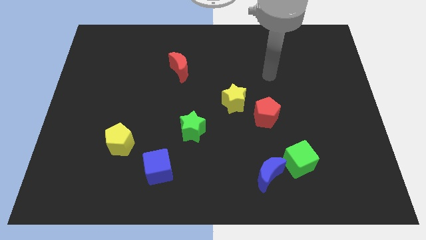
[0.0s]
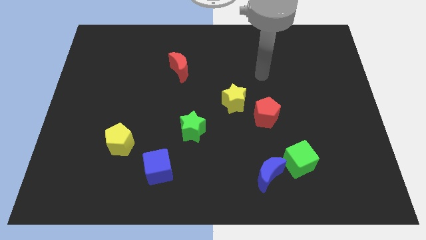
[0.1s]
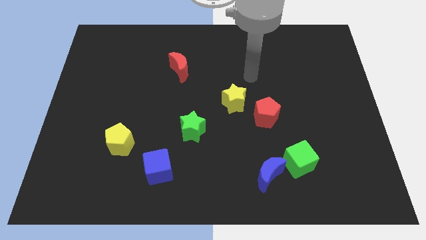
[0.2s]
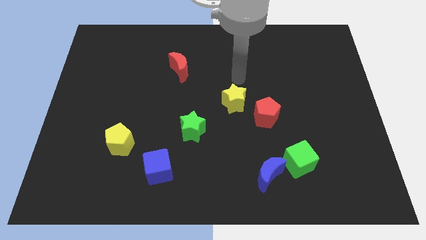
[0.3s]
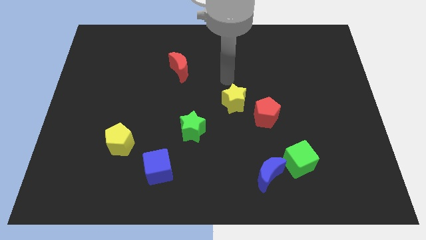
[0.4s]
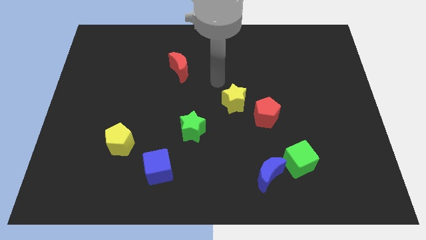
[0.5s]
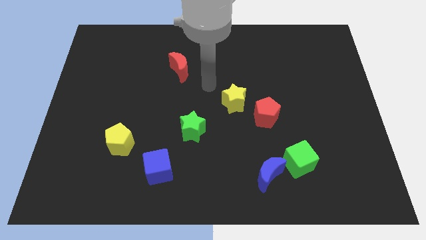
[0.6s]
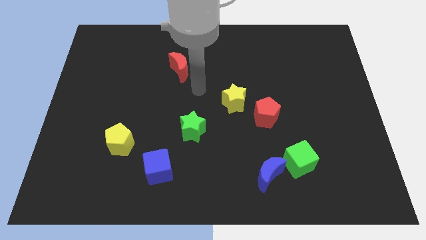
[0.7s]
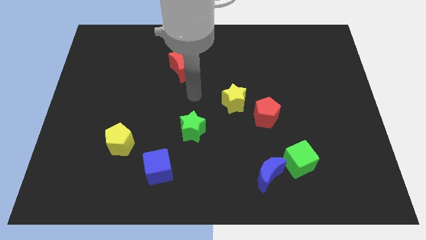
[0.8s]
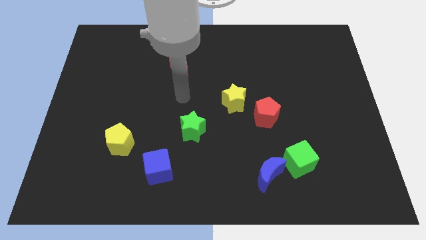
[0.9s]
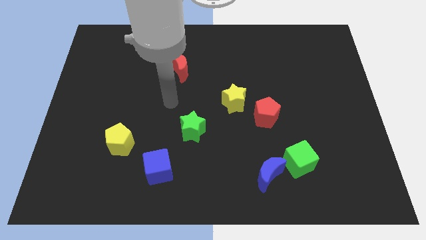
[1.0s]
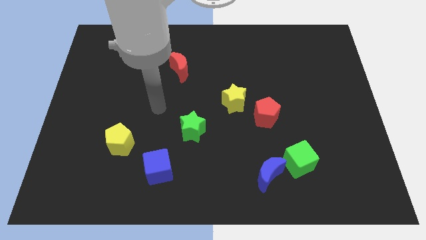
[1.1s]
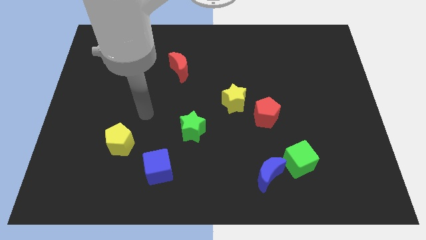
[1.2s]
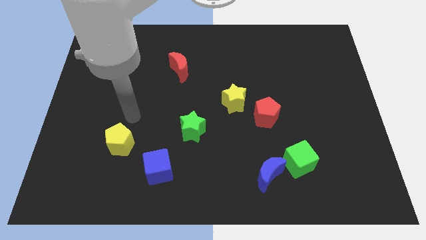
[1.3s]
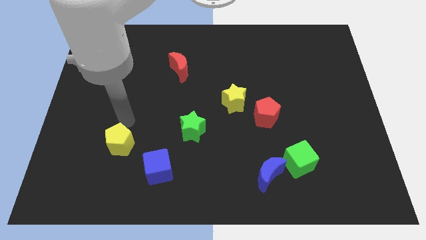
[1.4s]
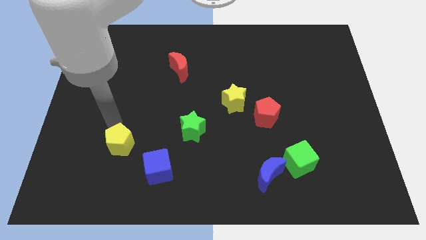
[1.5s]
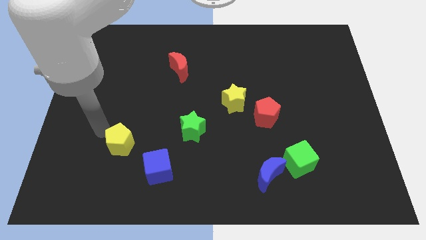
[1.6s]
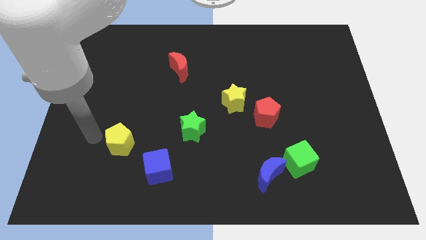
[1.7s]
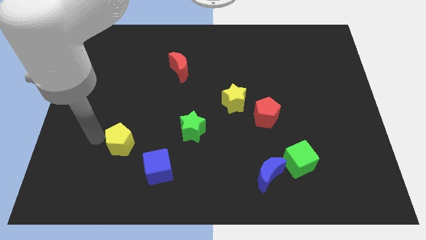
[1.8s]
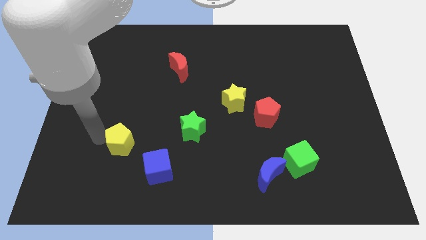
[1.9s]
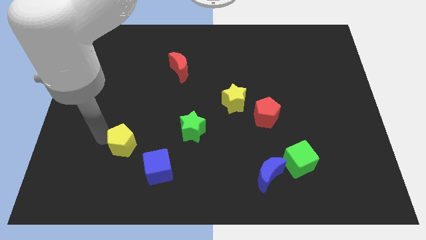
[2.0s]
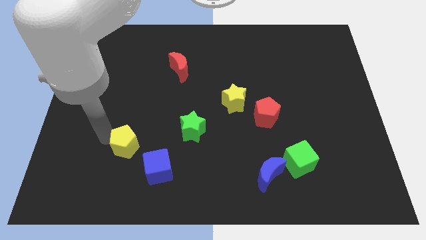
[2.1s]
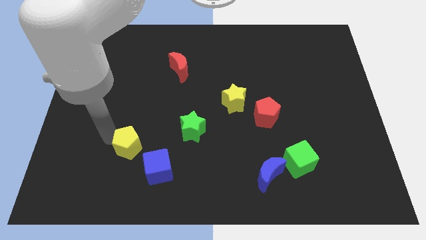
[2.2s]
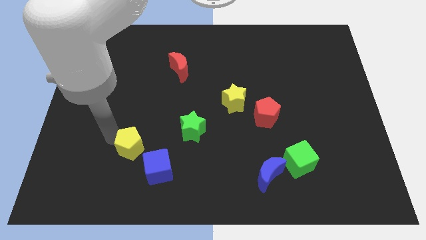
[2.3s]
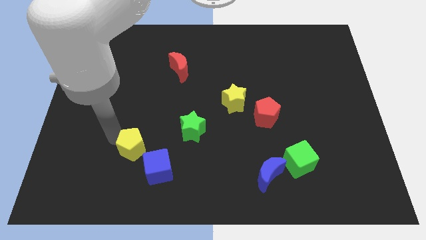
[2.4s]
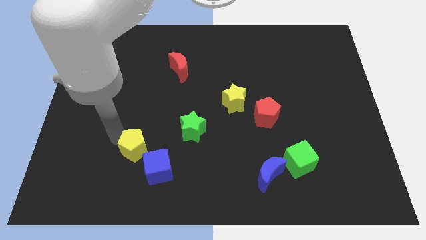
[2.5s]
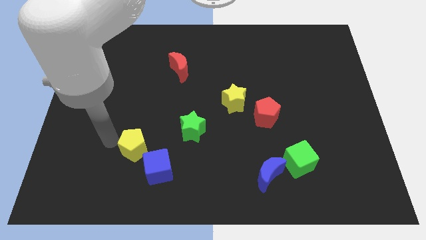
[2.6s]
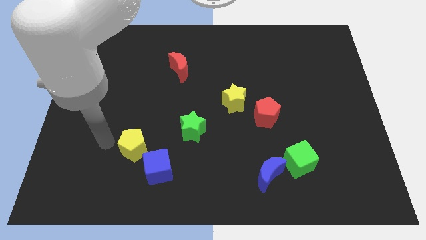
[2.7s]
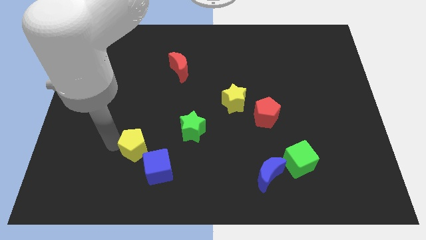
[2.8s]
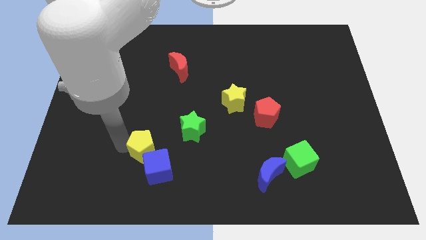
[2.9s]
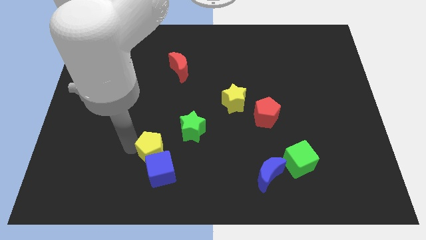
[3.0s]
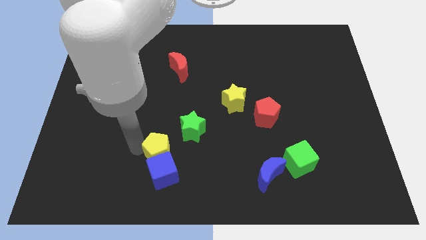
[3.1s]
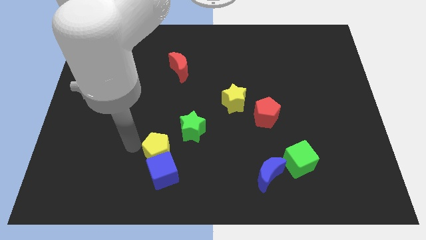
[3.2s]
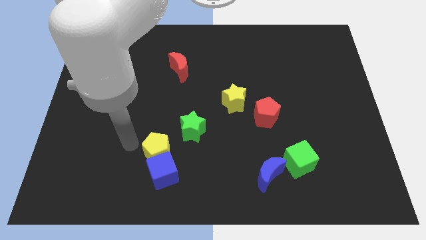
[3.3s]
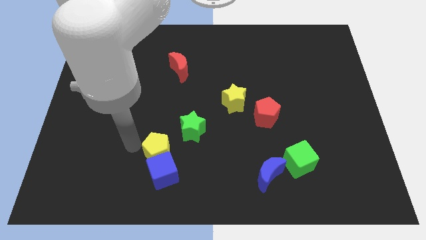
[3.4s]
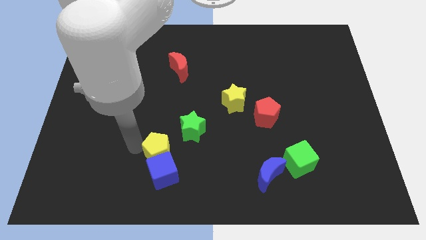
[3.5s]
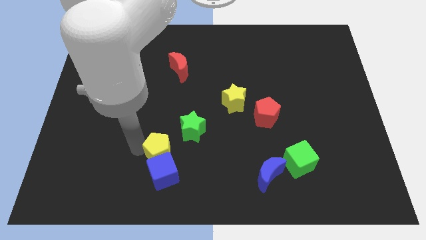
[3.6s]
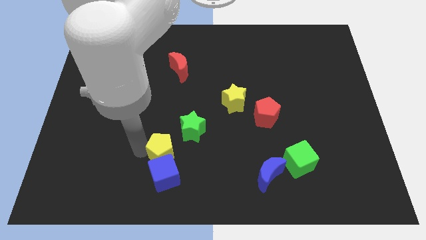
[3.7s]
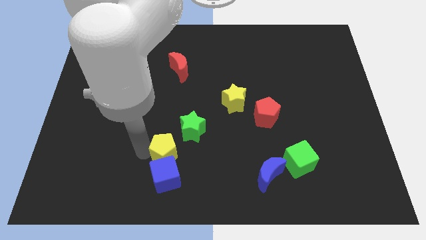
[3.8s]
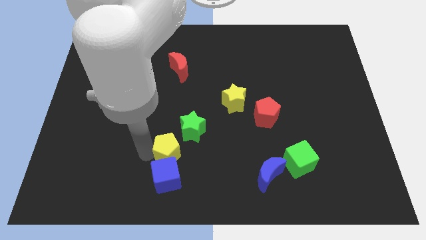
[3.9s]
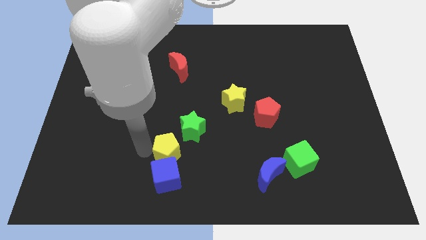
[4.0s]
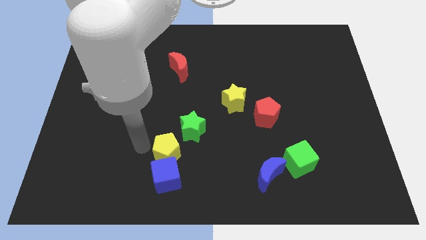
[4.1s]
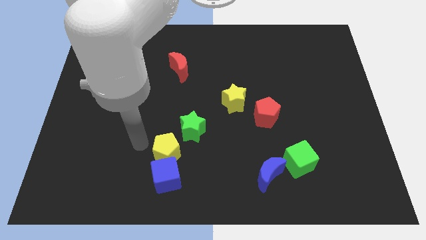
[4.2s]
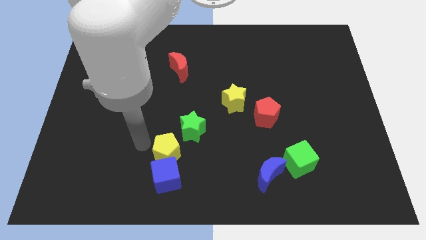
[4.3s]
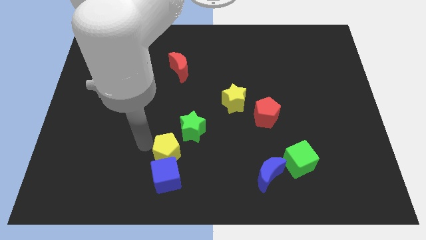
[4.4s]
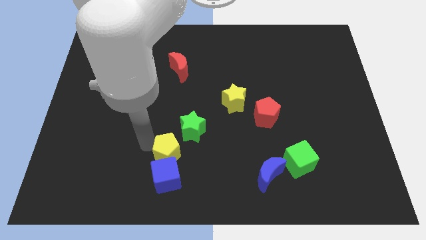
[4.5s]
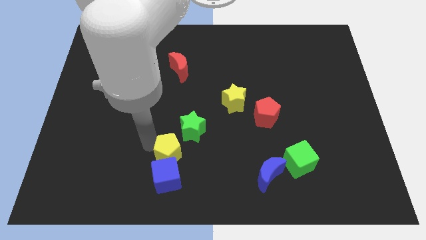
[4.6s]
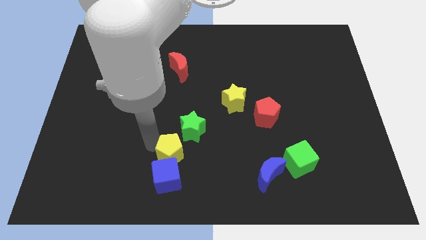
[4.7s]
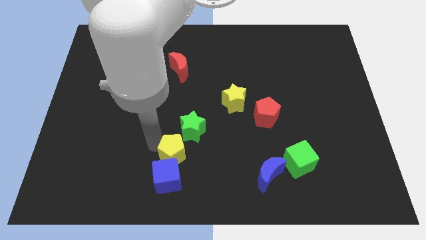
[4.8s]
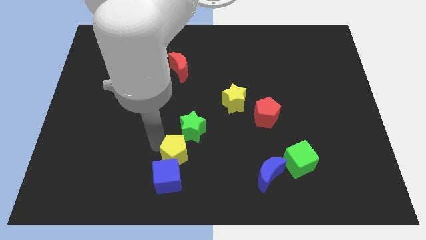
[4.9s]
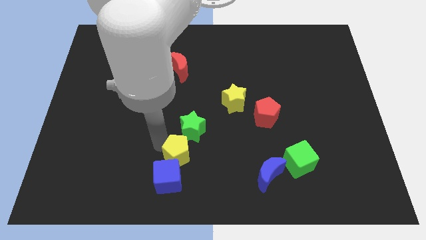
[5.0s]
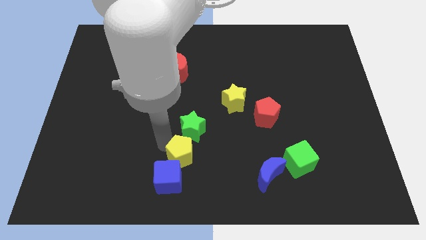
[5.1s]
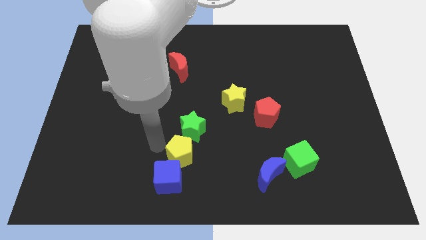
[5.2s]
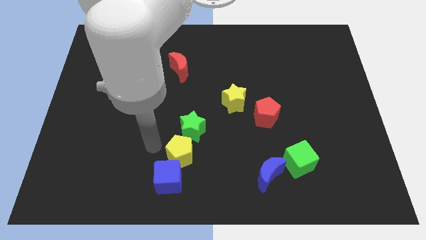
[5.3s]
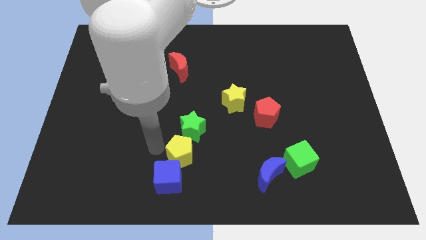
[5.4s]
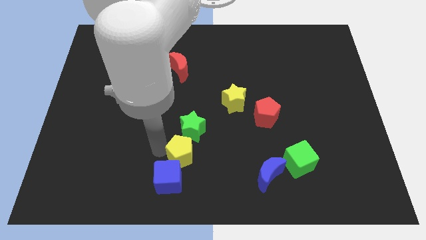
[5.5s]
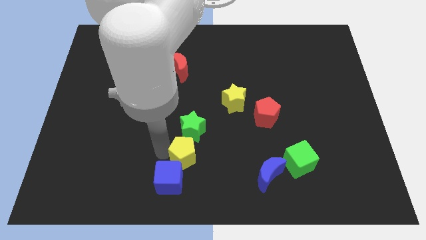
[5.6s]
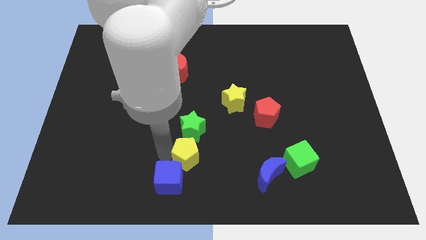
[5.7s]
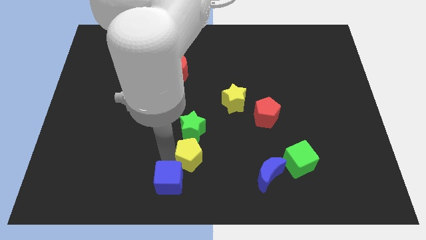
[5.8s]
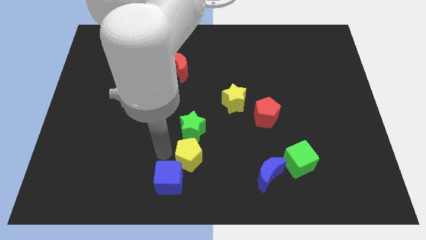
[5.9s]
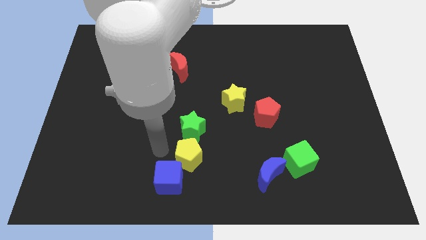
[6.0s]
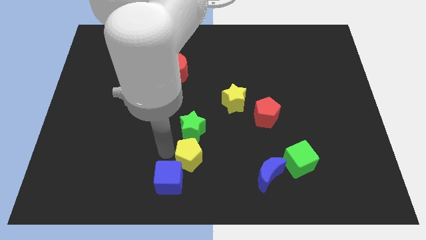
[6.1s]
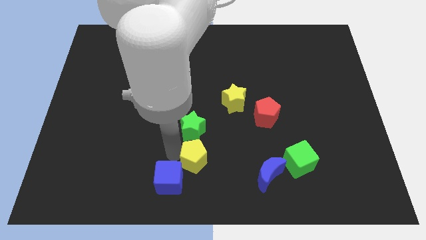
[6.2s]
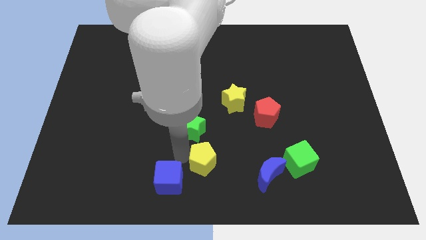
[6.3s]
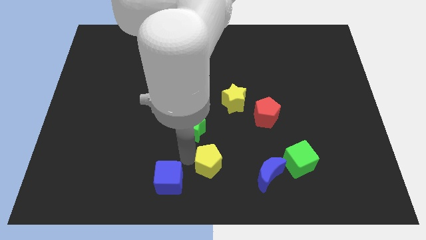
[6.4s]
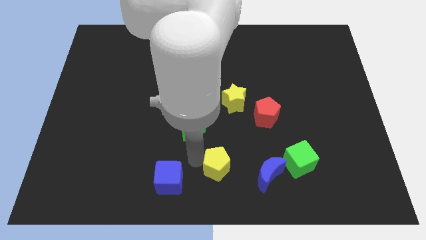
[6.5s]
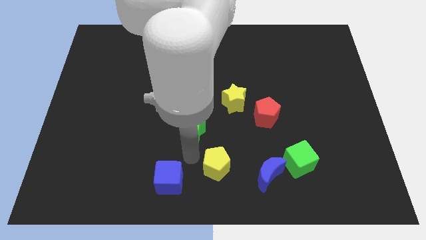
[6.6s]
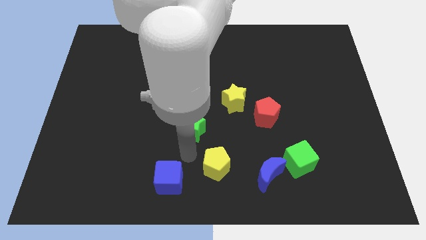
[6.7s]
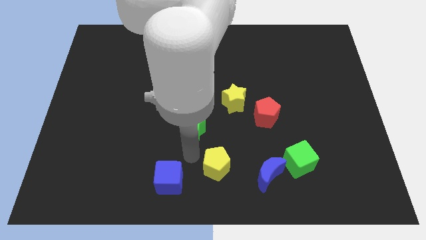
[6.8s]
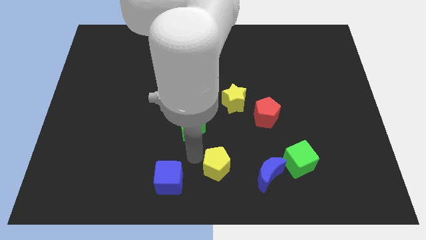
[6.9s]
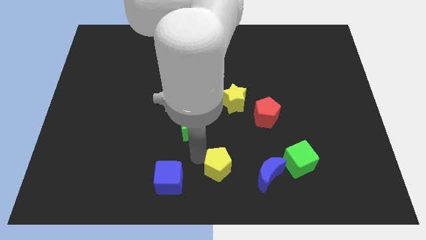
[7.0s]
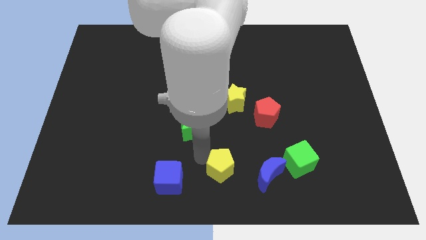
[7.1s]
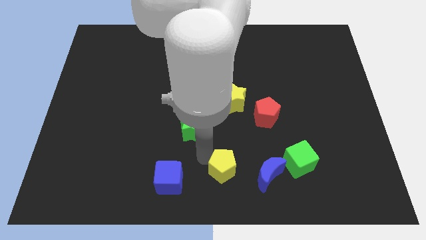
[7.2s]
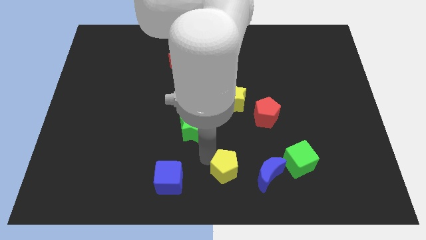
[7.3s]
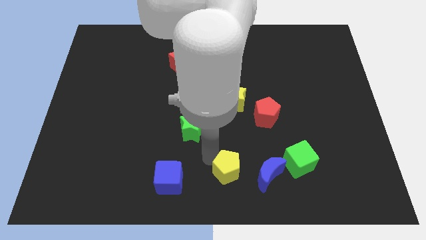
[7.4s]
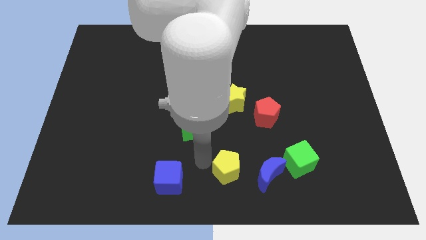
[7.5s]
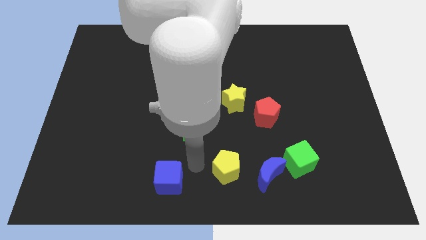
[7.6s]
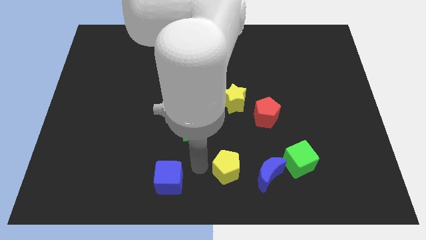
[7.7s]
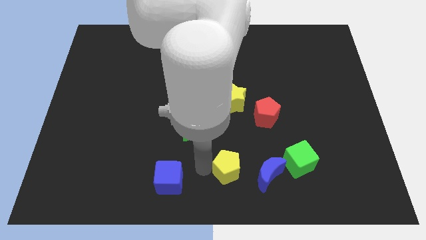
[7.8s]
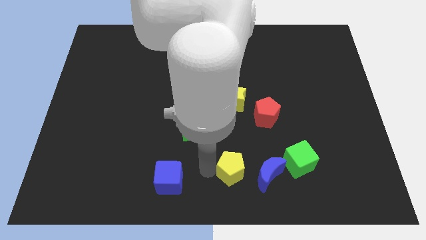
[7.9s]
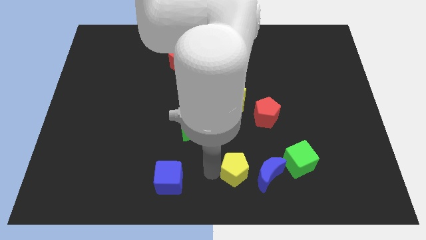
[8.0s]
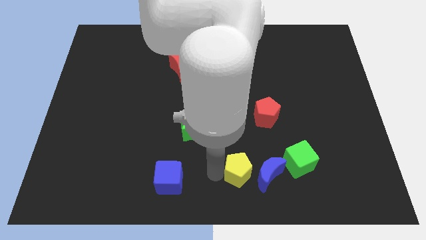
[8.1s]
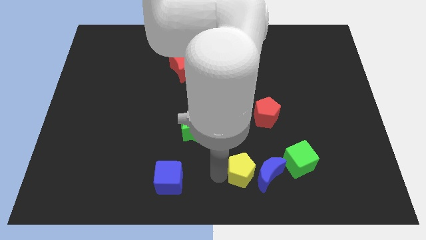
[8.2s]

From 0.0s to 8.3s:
move the yellow pentagon towards the blue moon
